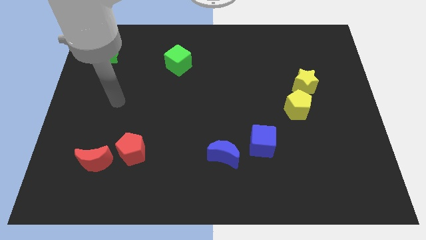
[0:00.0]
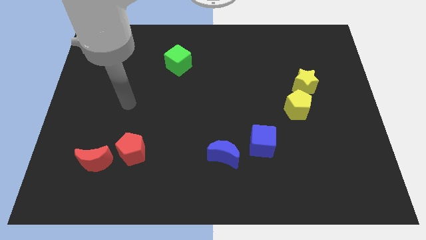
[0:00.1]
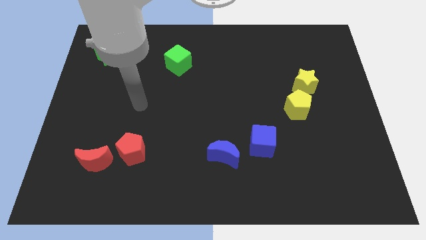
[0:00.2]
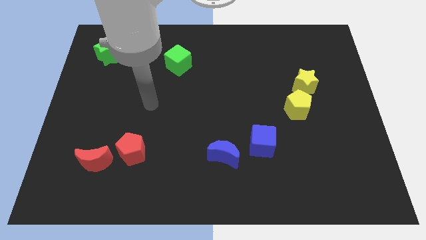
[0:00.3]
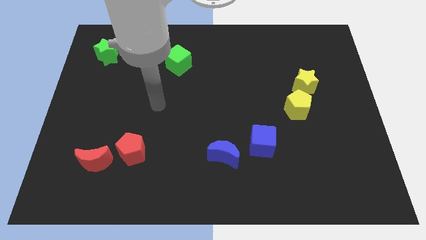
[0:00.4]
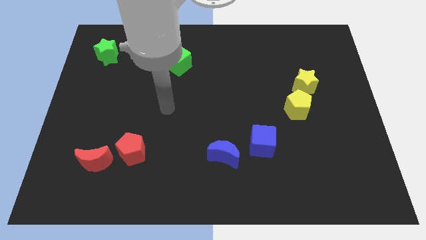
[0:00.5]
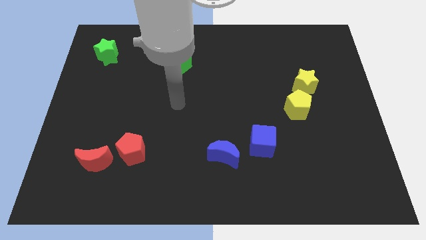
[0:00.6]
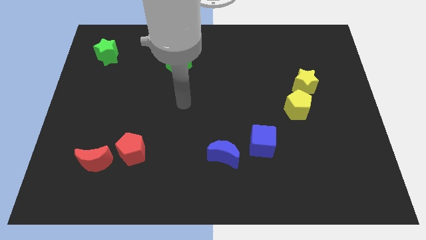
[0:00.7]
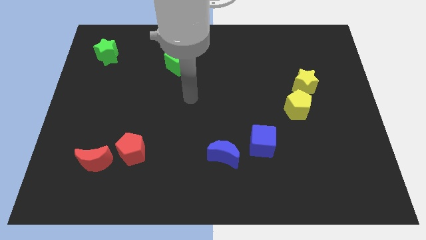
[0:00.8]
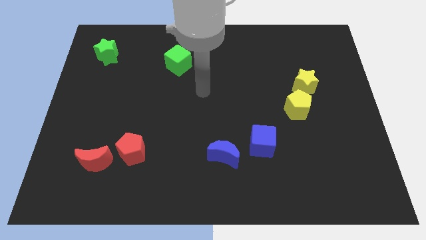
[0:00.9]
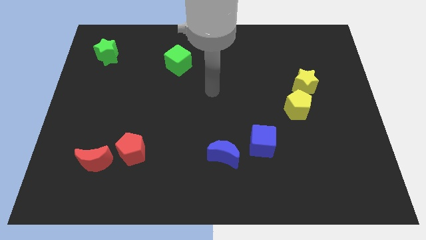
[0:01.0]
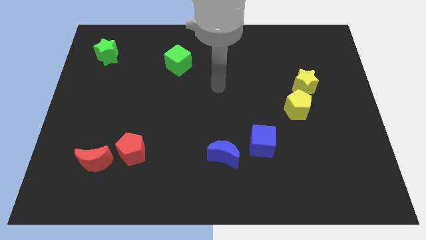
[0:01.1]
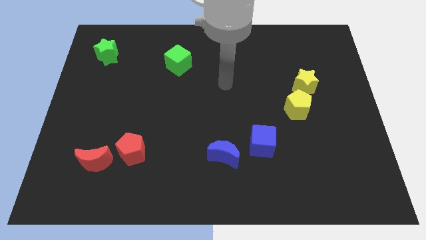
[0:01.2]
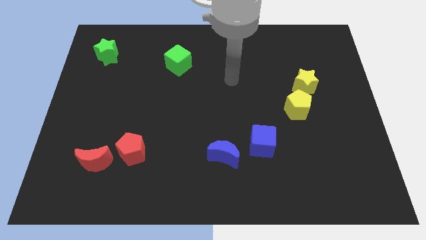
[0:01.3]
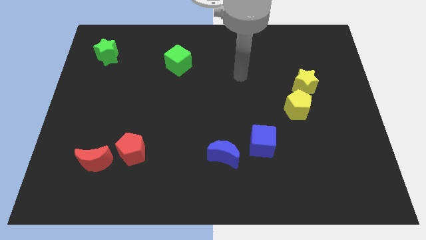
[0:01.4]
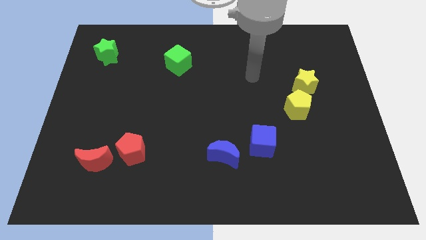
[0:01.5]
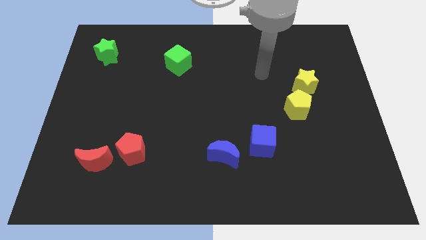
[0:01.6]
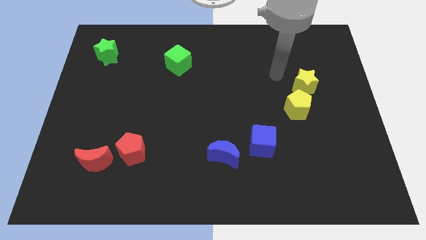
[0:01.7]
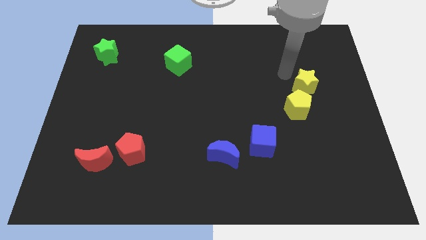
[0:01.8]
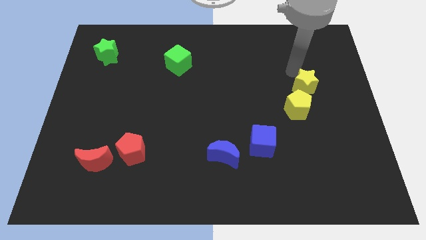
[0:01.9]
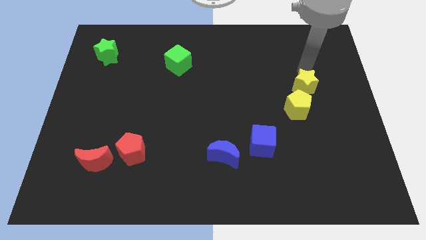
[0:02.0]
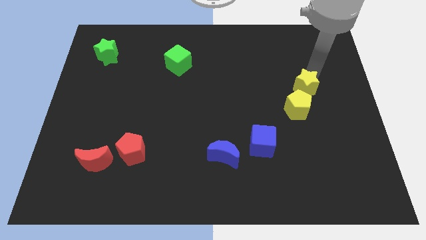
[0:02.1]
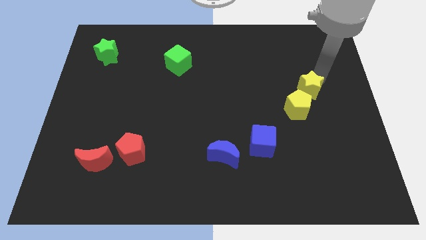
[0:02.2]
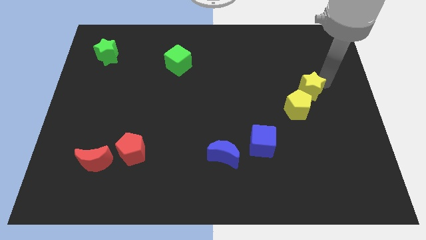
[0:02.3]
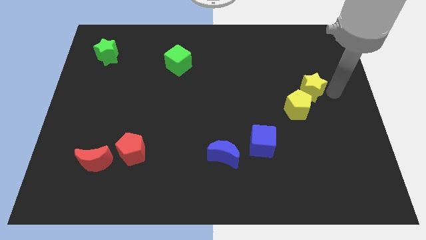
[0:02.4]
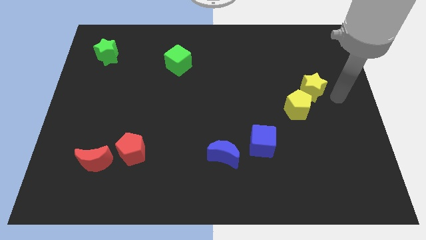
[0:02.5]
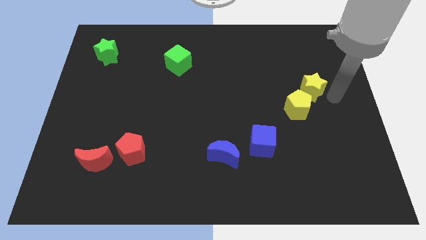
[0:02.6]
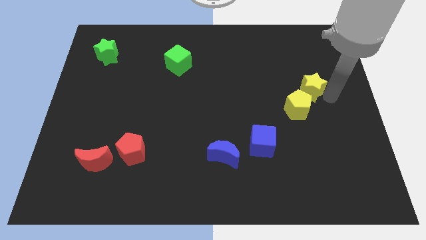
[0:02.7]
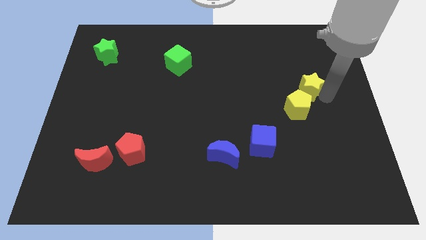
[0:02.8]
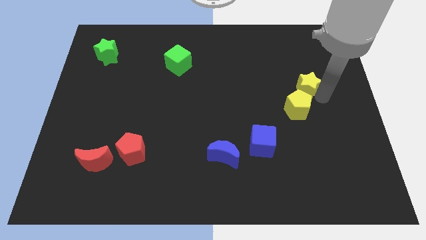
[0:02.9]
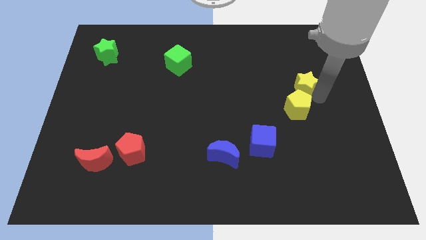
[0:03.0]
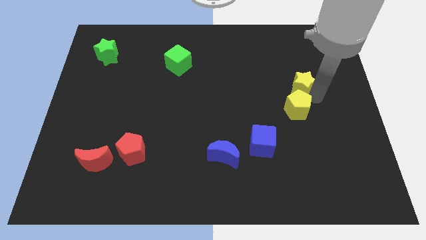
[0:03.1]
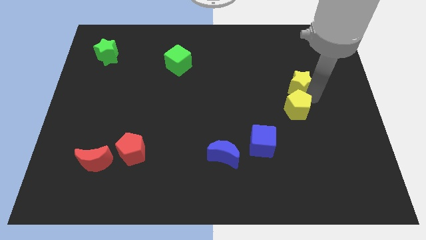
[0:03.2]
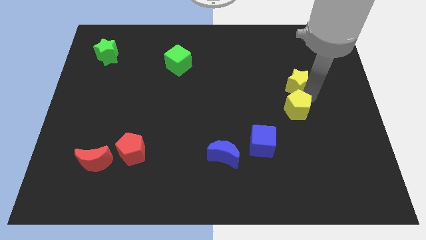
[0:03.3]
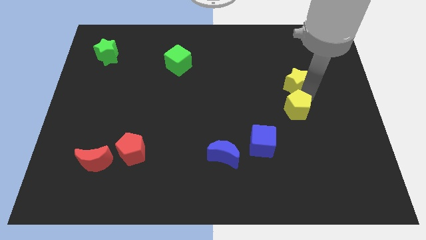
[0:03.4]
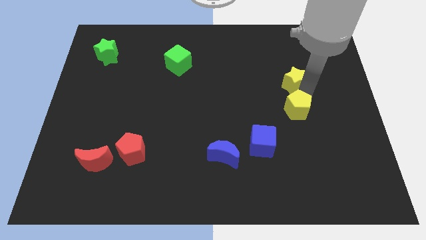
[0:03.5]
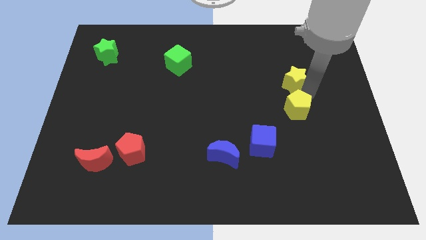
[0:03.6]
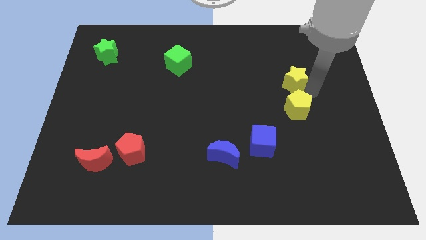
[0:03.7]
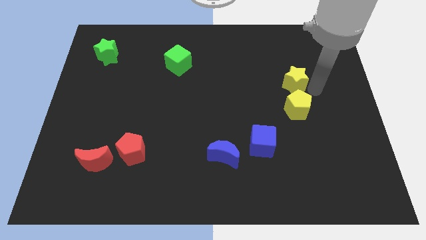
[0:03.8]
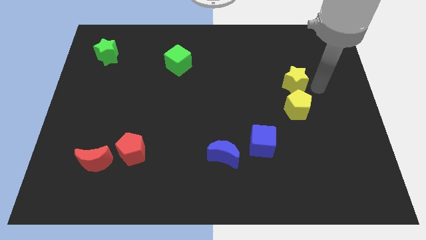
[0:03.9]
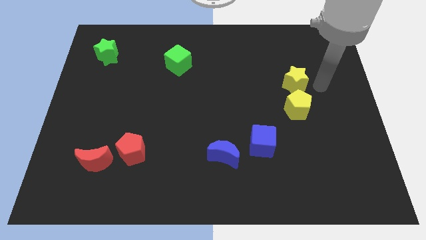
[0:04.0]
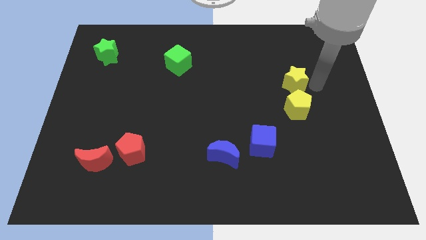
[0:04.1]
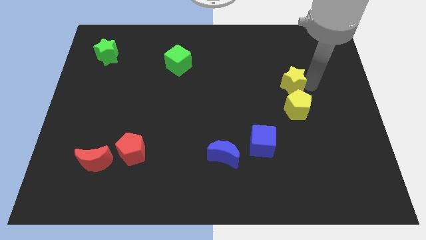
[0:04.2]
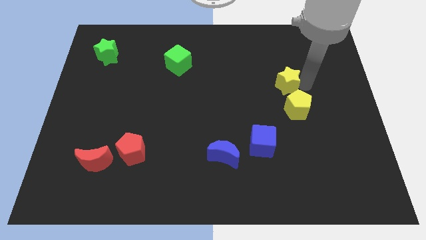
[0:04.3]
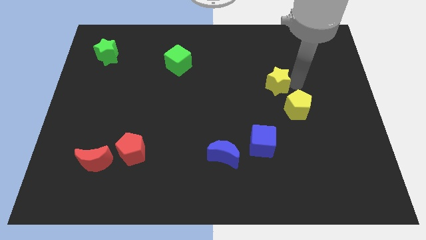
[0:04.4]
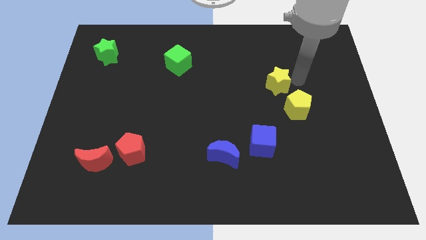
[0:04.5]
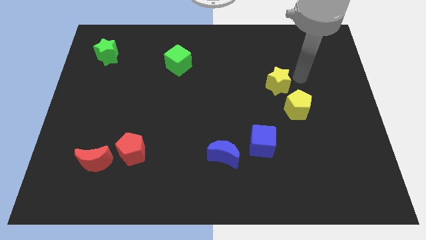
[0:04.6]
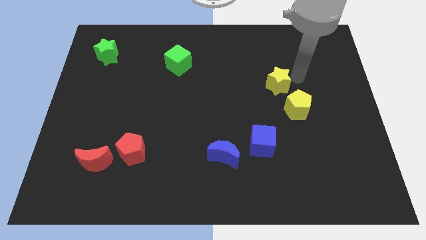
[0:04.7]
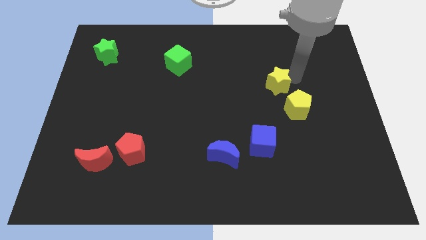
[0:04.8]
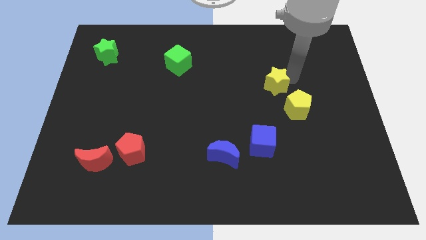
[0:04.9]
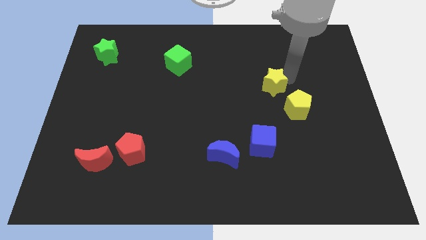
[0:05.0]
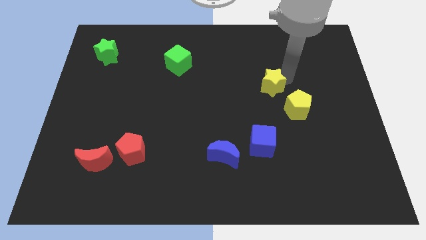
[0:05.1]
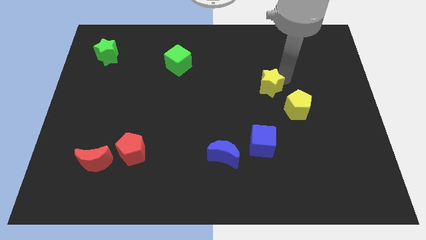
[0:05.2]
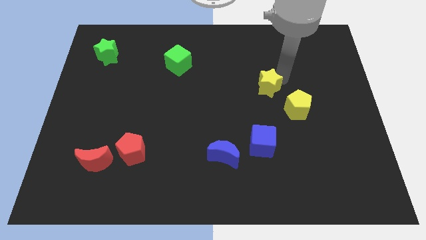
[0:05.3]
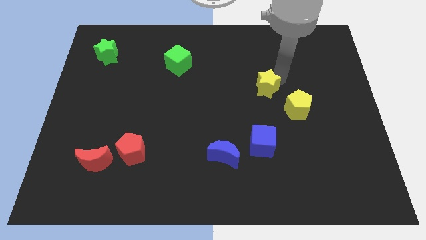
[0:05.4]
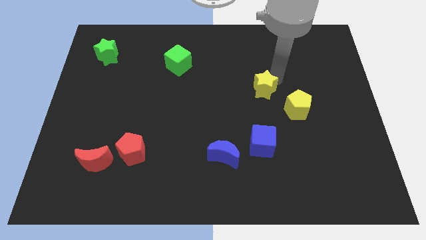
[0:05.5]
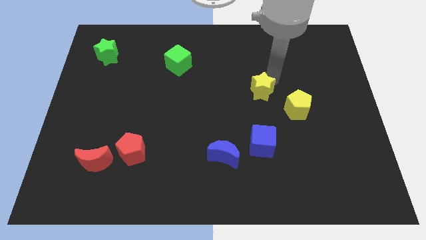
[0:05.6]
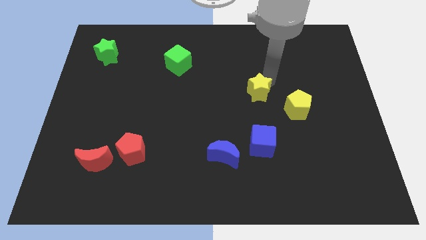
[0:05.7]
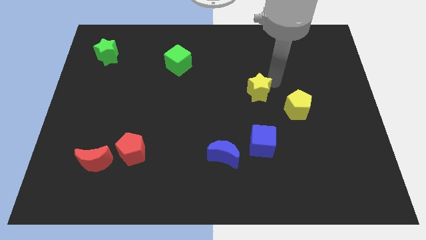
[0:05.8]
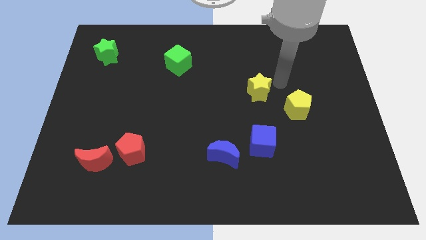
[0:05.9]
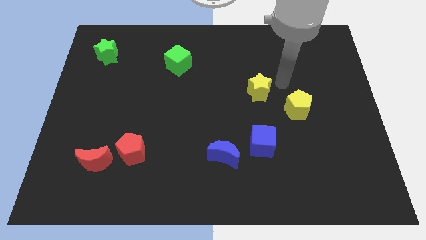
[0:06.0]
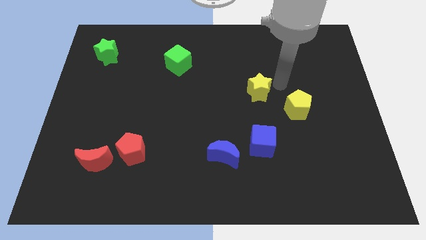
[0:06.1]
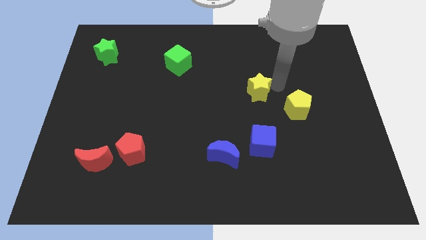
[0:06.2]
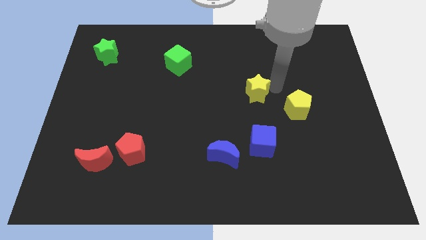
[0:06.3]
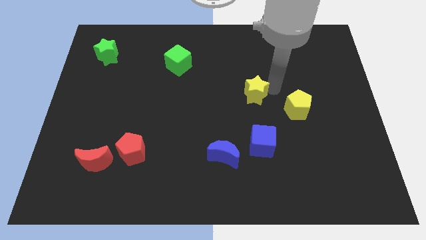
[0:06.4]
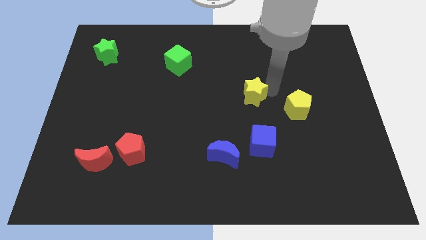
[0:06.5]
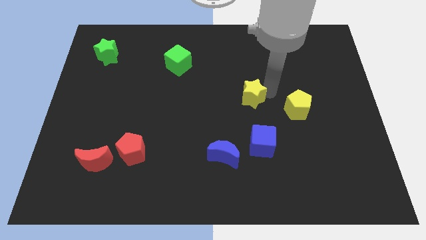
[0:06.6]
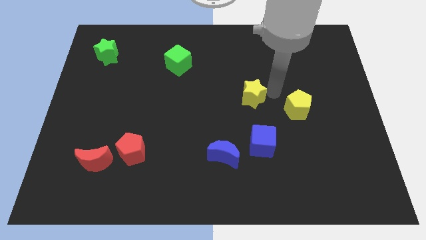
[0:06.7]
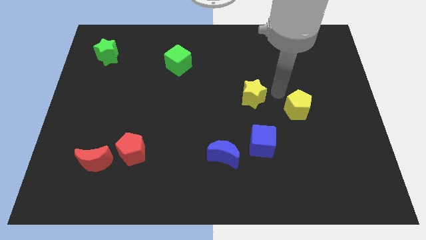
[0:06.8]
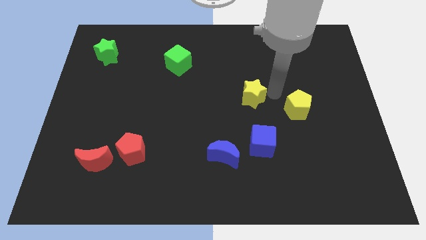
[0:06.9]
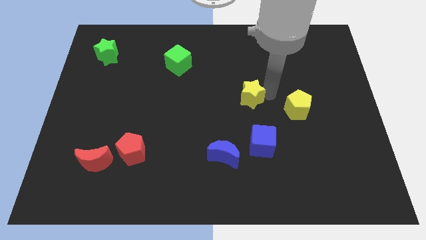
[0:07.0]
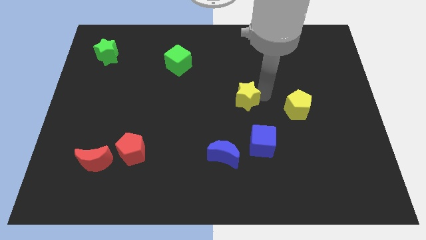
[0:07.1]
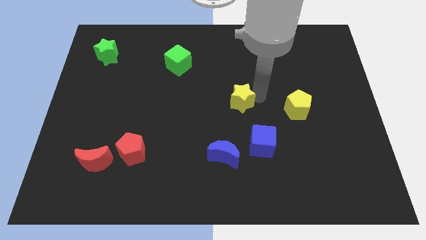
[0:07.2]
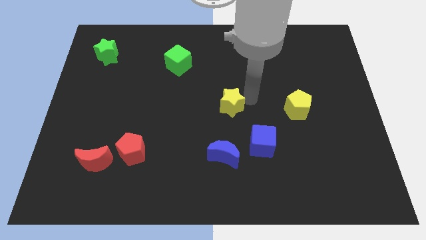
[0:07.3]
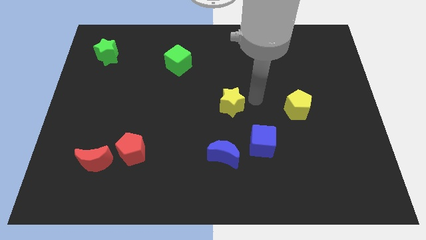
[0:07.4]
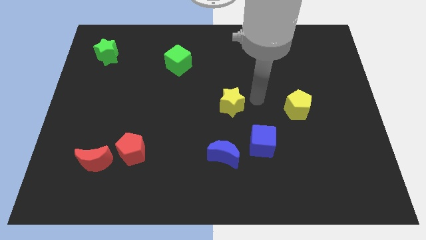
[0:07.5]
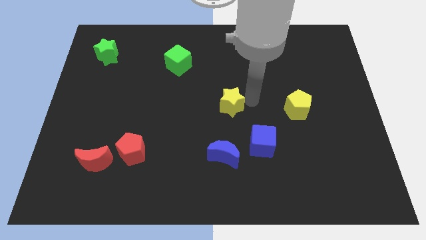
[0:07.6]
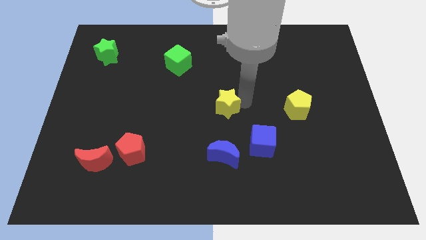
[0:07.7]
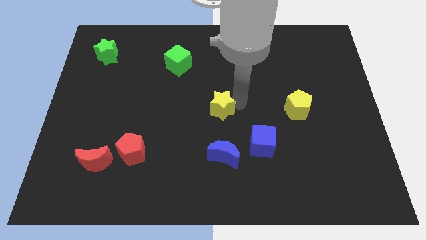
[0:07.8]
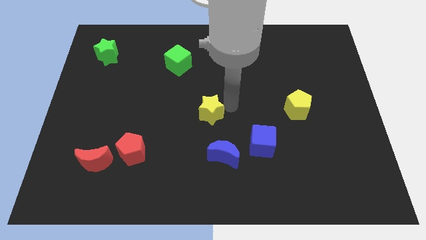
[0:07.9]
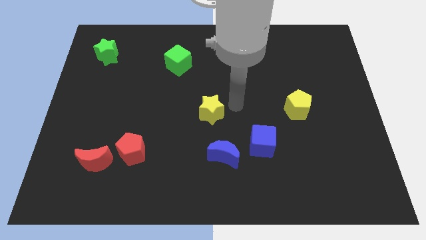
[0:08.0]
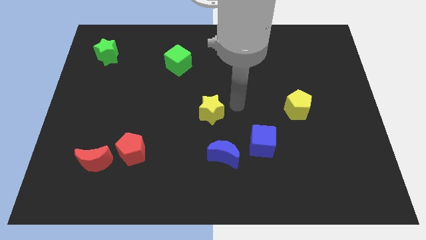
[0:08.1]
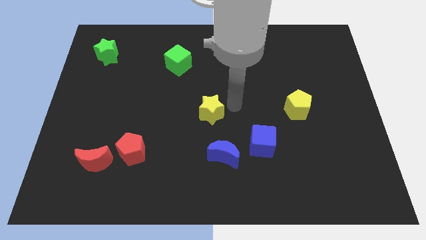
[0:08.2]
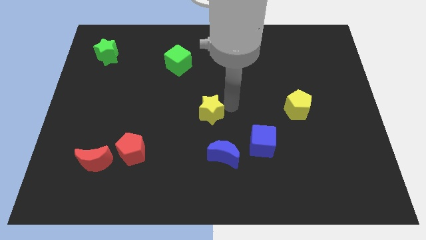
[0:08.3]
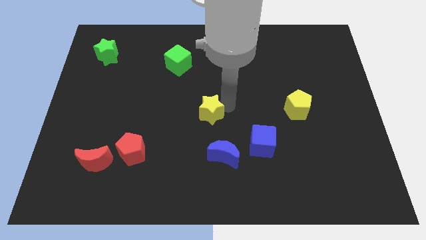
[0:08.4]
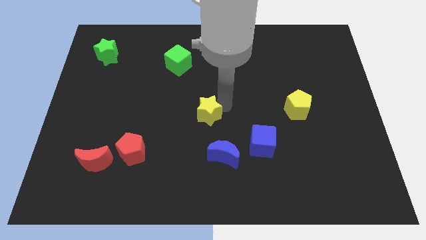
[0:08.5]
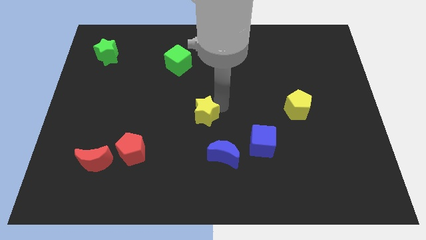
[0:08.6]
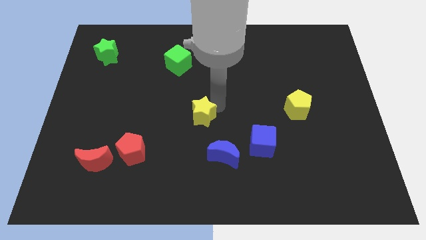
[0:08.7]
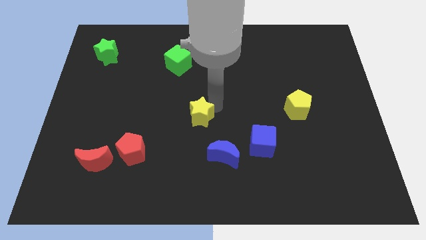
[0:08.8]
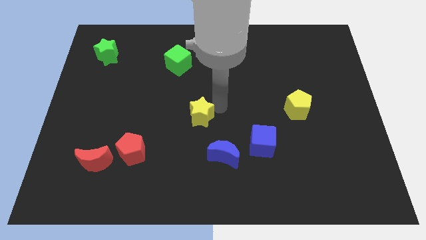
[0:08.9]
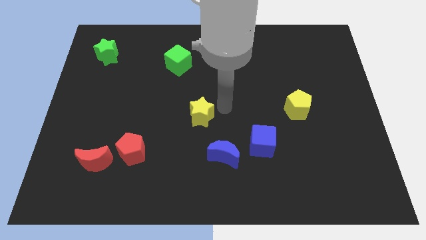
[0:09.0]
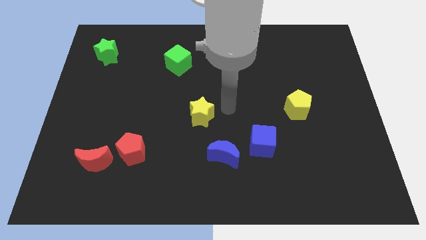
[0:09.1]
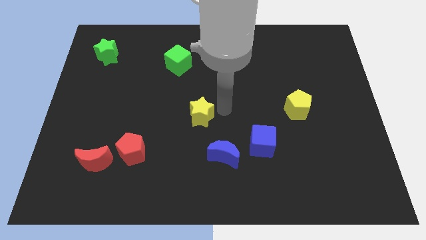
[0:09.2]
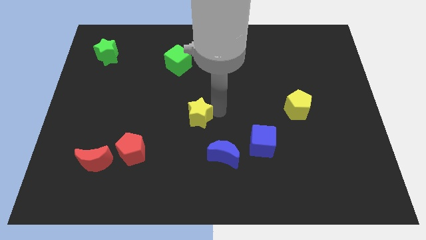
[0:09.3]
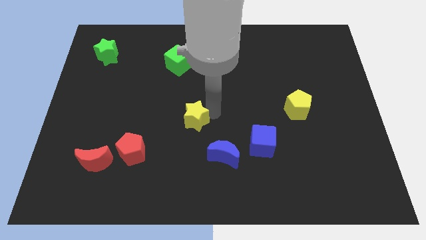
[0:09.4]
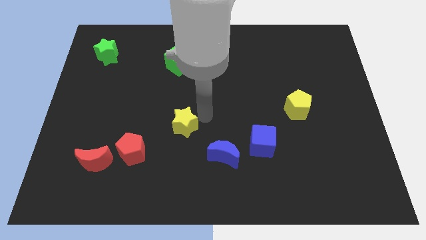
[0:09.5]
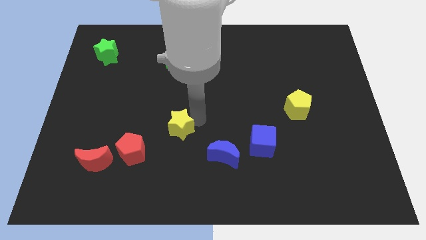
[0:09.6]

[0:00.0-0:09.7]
push the yellow star to the top right of the red pentagon
